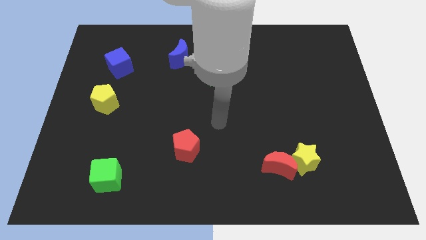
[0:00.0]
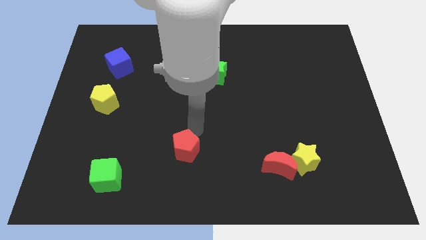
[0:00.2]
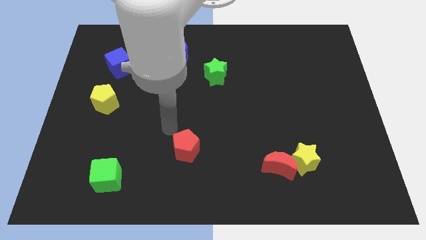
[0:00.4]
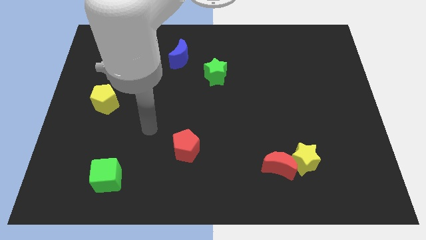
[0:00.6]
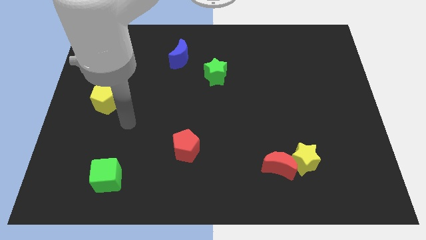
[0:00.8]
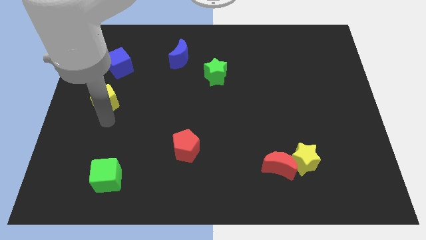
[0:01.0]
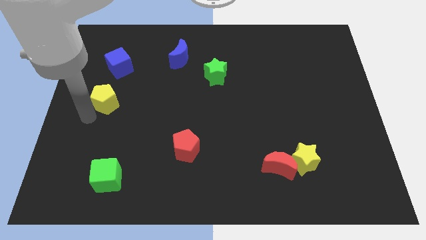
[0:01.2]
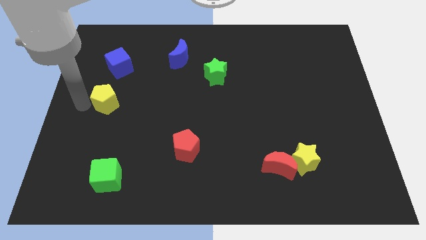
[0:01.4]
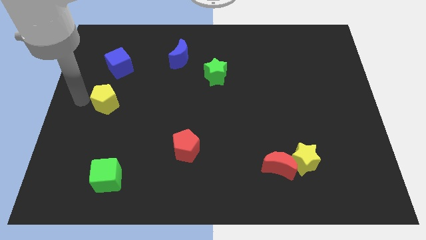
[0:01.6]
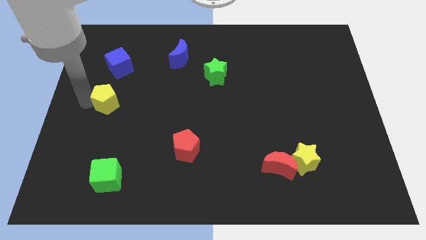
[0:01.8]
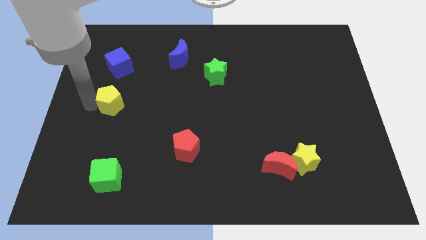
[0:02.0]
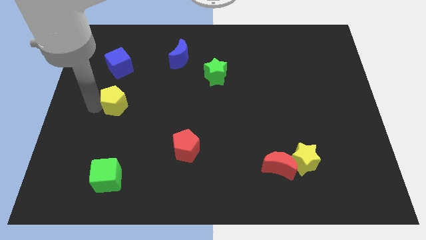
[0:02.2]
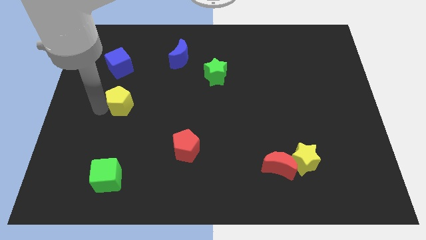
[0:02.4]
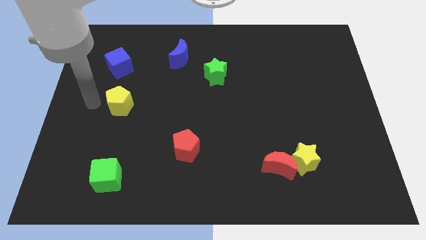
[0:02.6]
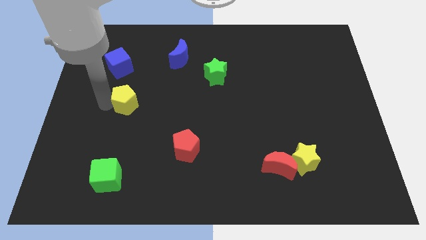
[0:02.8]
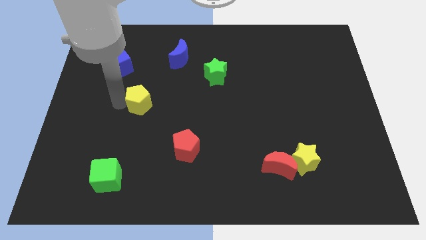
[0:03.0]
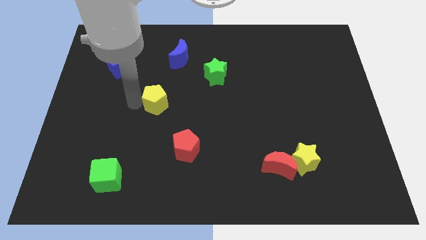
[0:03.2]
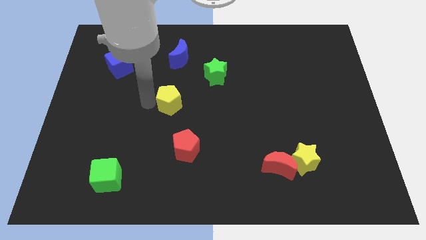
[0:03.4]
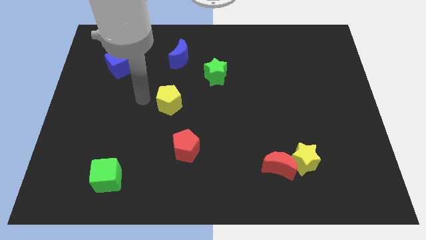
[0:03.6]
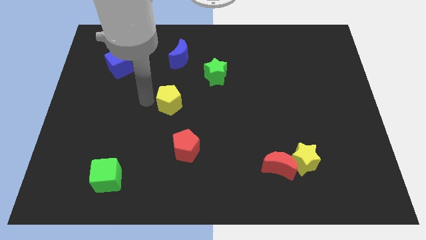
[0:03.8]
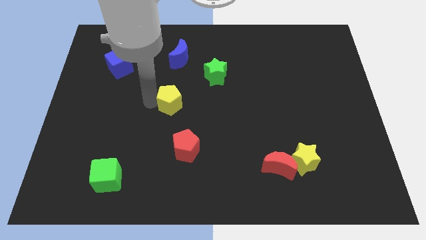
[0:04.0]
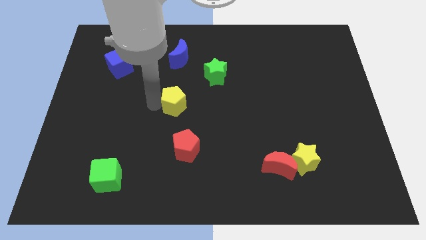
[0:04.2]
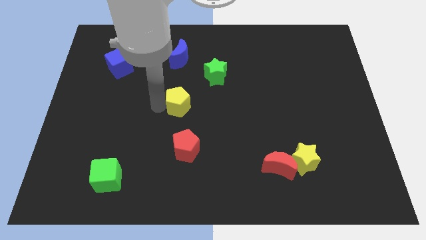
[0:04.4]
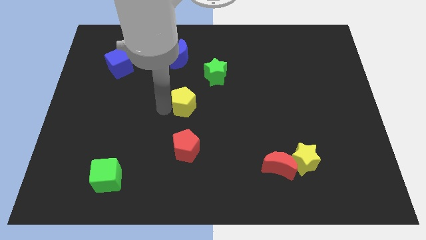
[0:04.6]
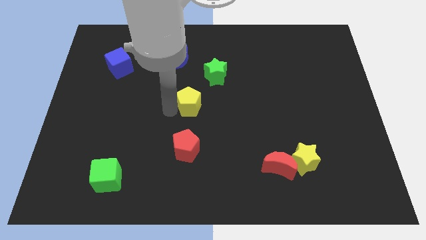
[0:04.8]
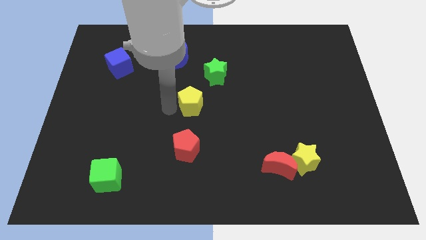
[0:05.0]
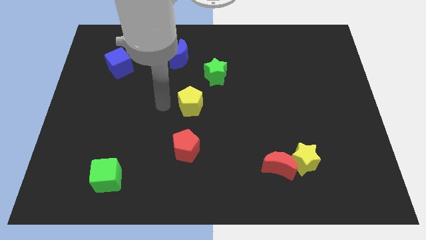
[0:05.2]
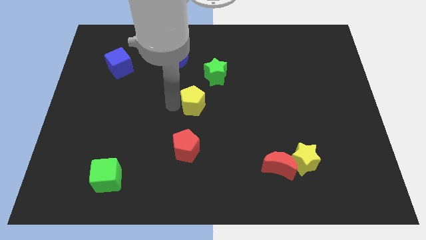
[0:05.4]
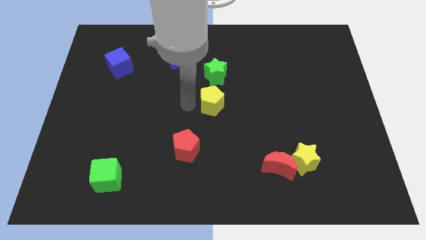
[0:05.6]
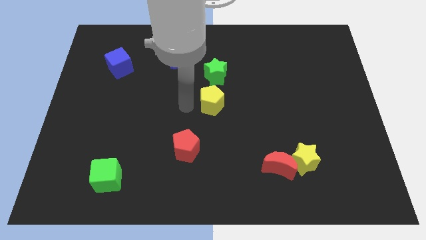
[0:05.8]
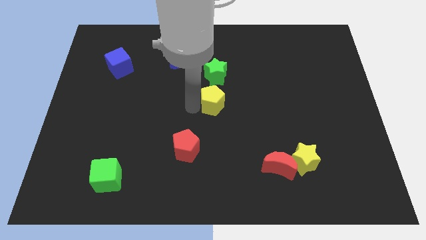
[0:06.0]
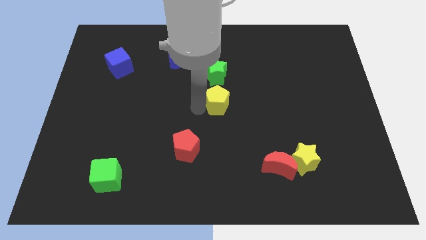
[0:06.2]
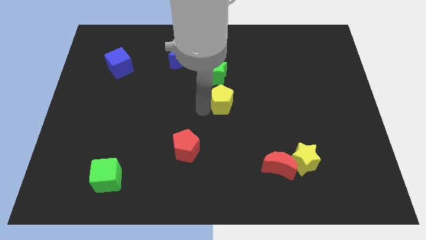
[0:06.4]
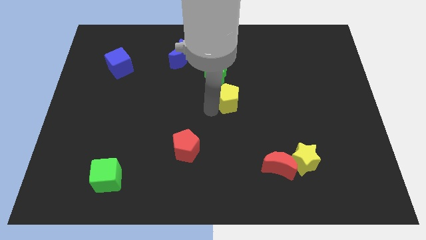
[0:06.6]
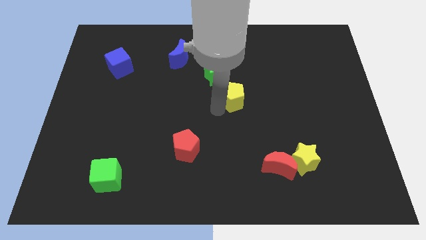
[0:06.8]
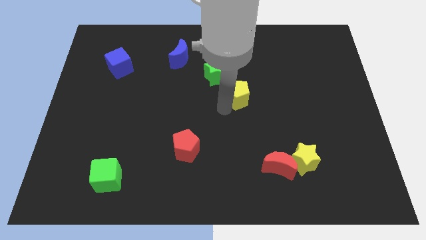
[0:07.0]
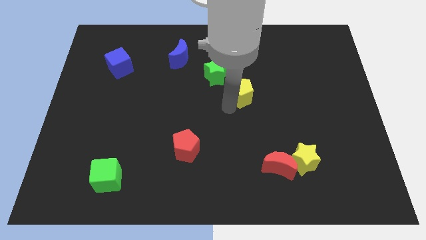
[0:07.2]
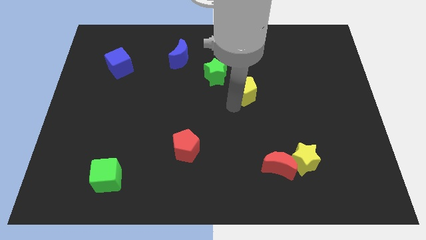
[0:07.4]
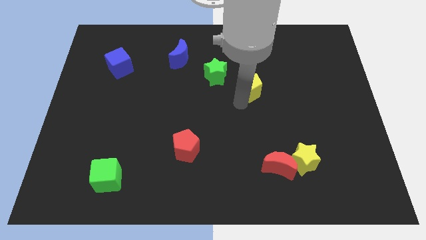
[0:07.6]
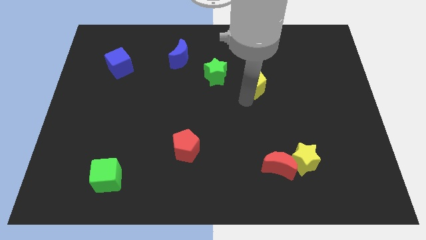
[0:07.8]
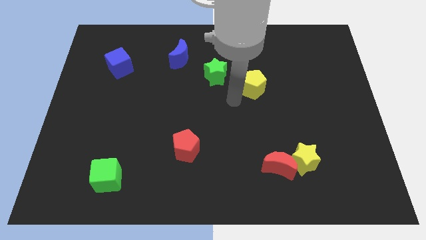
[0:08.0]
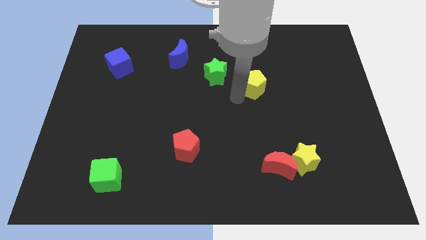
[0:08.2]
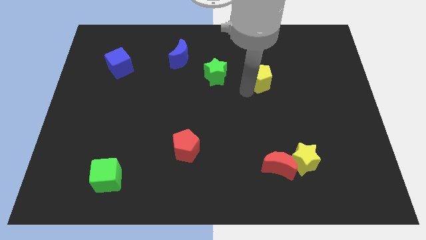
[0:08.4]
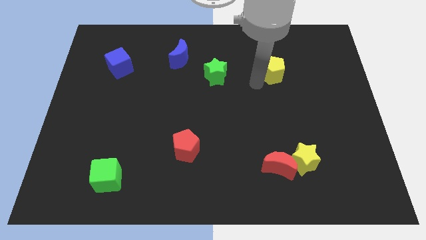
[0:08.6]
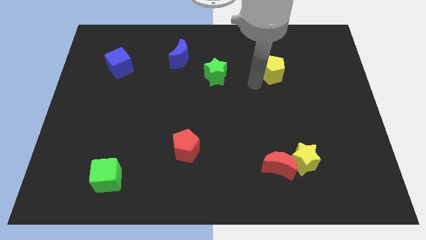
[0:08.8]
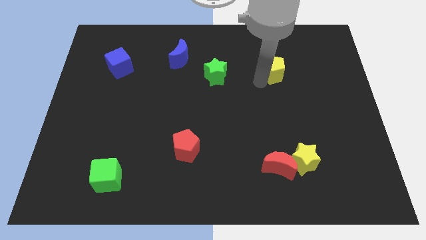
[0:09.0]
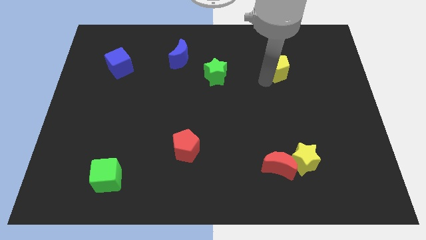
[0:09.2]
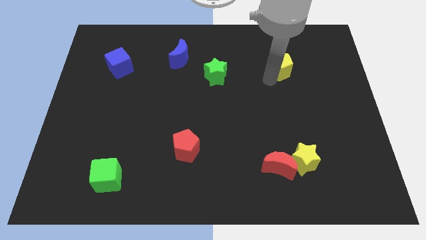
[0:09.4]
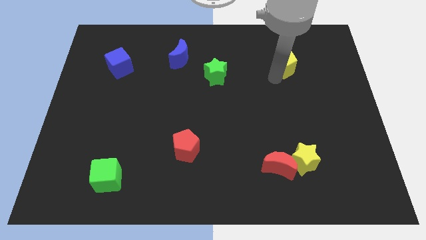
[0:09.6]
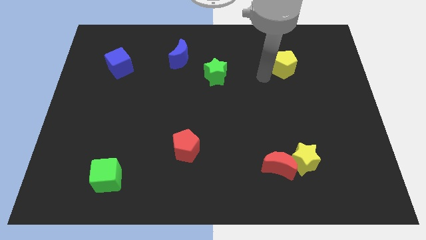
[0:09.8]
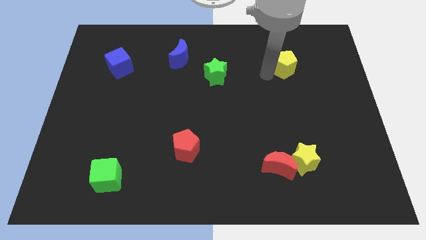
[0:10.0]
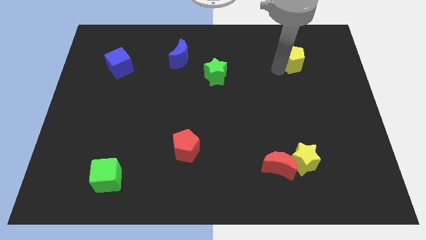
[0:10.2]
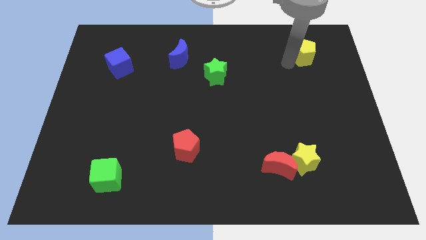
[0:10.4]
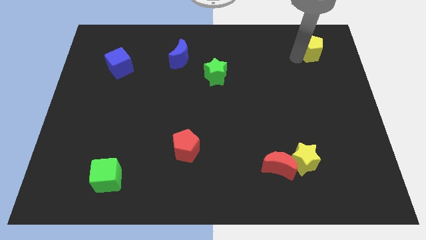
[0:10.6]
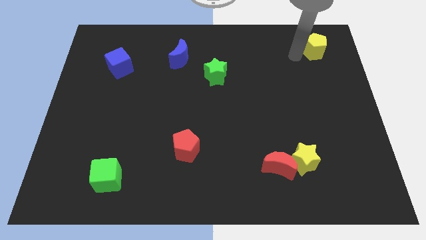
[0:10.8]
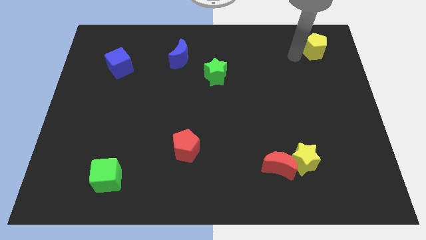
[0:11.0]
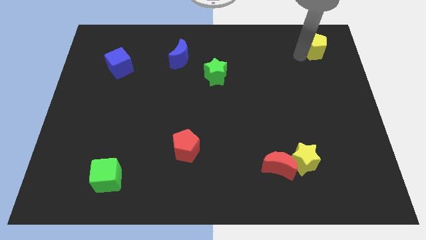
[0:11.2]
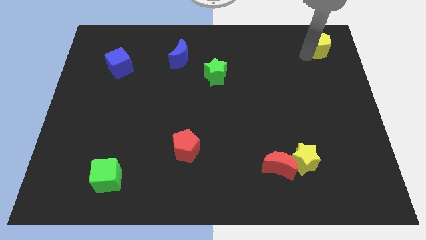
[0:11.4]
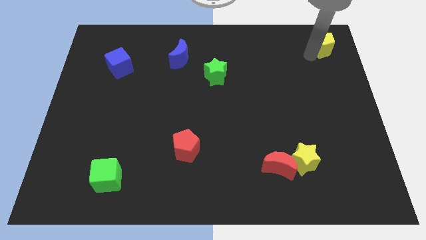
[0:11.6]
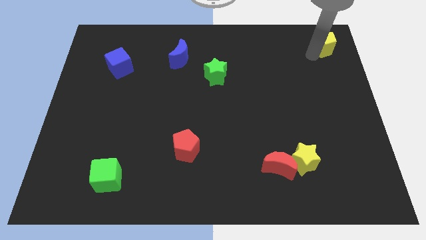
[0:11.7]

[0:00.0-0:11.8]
slide the yellow pentagon to the top right
